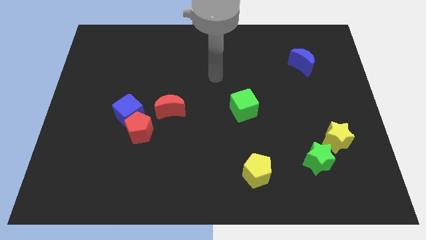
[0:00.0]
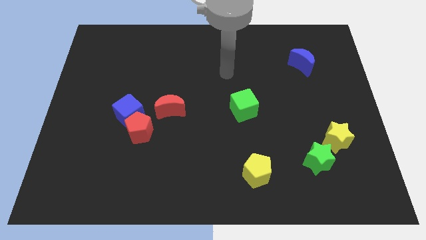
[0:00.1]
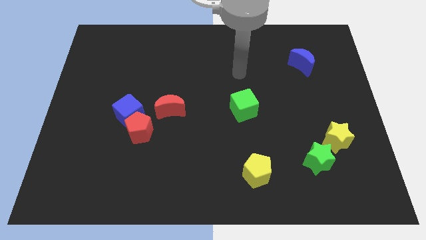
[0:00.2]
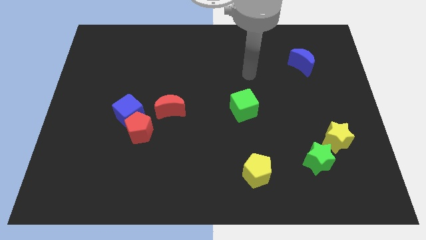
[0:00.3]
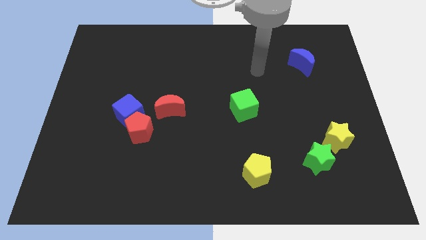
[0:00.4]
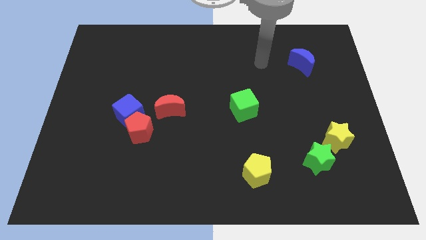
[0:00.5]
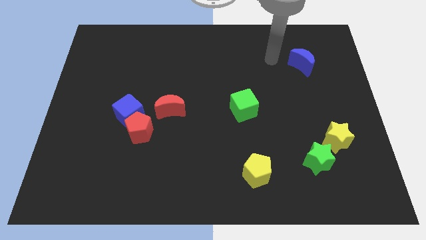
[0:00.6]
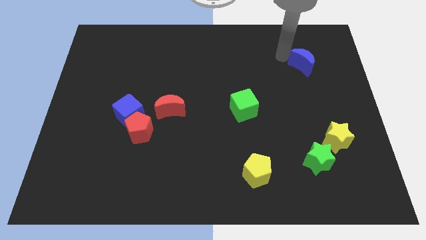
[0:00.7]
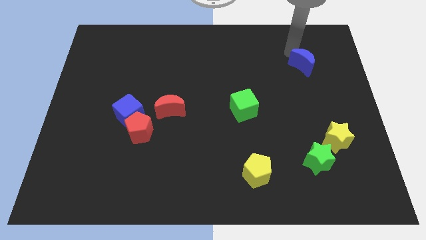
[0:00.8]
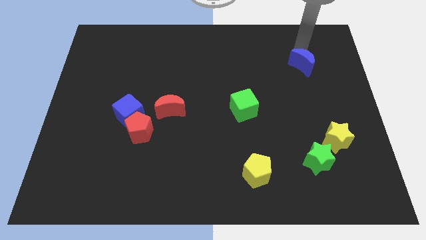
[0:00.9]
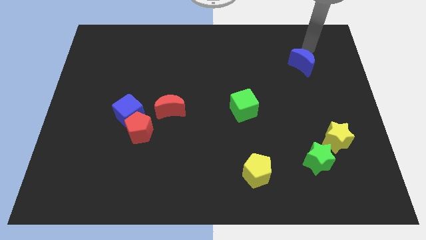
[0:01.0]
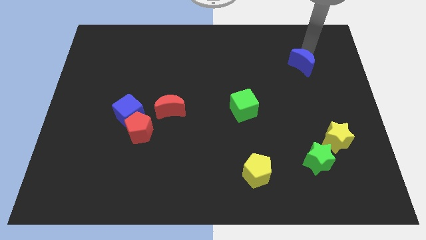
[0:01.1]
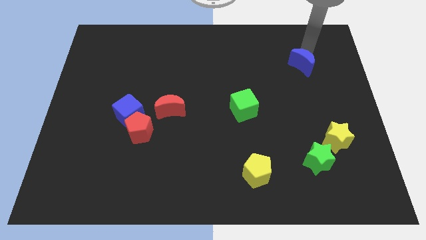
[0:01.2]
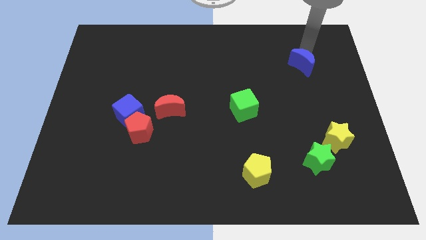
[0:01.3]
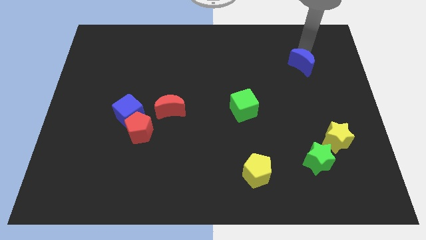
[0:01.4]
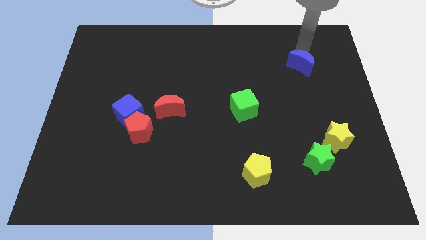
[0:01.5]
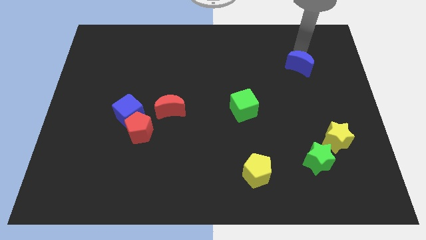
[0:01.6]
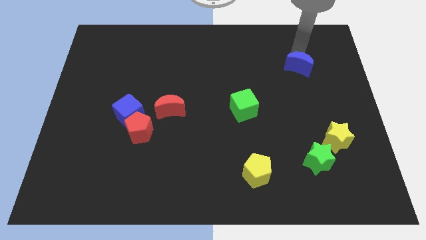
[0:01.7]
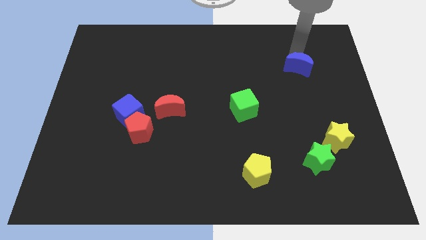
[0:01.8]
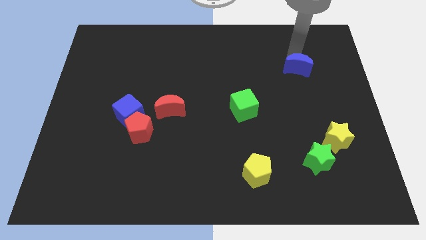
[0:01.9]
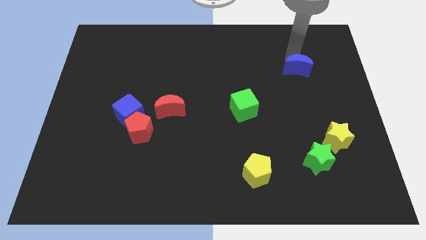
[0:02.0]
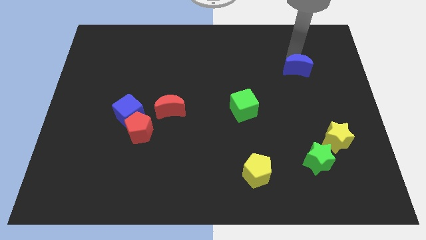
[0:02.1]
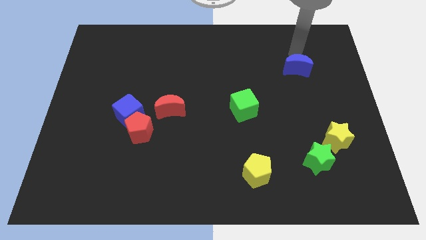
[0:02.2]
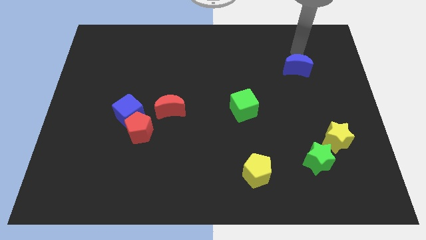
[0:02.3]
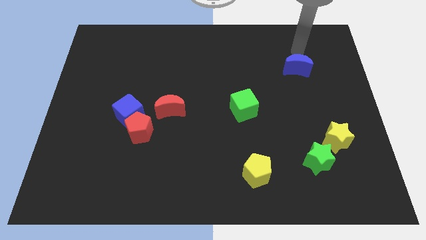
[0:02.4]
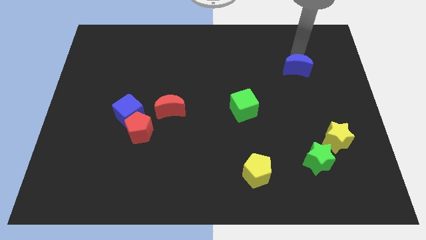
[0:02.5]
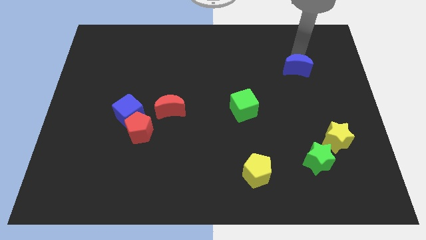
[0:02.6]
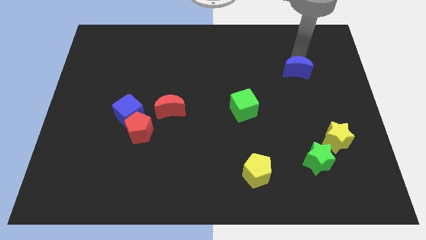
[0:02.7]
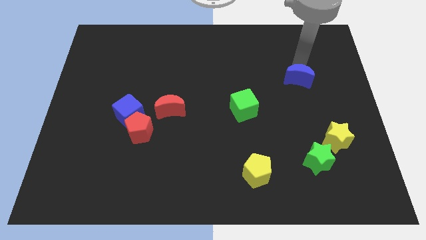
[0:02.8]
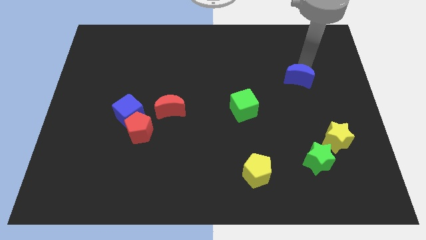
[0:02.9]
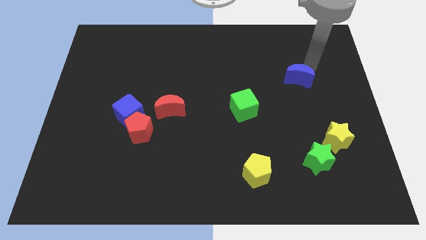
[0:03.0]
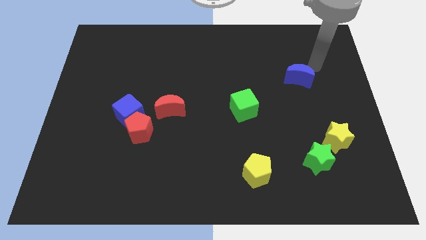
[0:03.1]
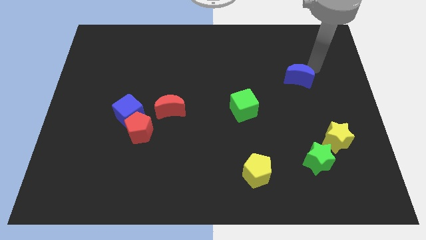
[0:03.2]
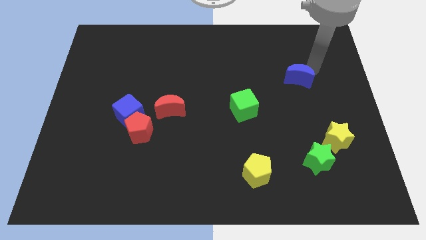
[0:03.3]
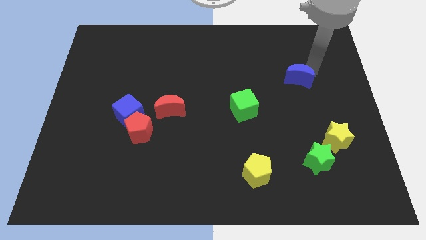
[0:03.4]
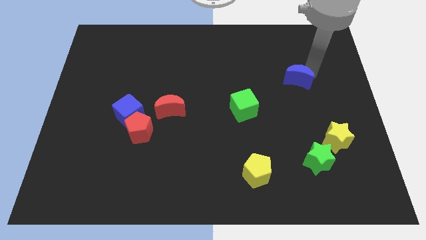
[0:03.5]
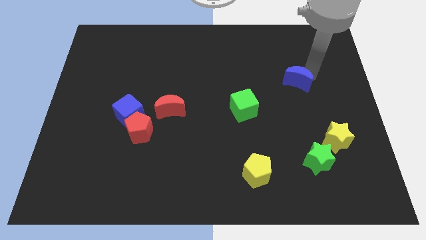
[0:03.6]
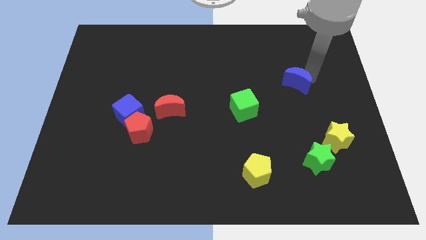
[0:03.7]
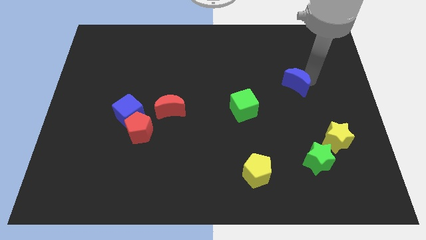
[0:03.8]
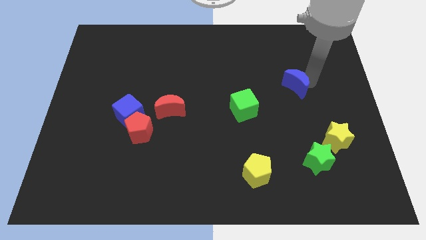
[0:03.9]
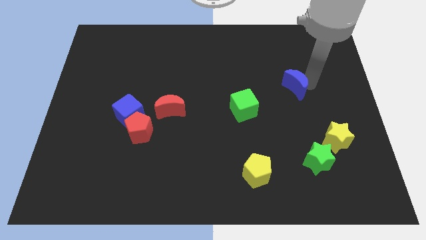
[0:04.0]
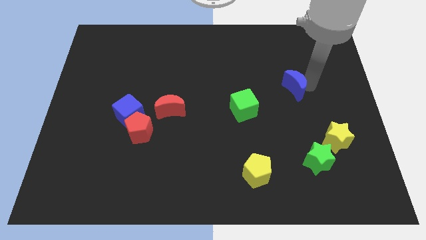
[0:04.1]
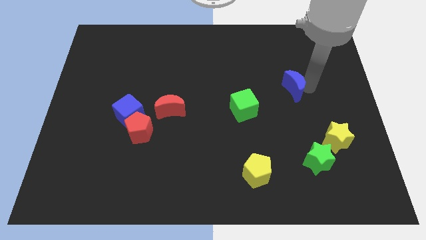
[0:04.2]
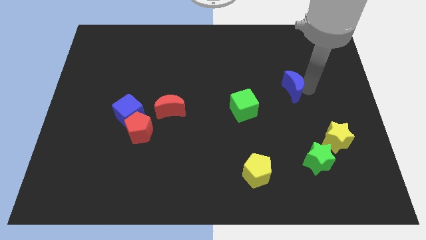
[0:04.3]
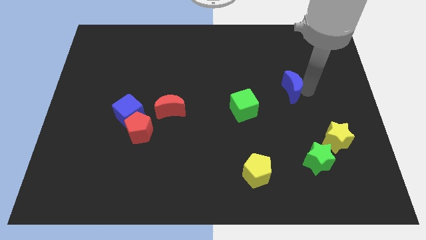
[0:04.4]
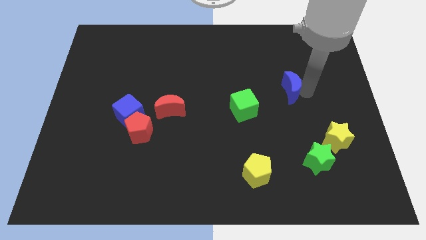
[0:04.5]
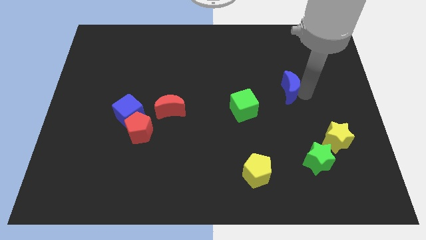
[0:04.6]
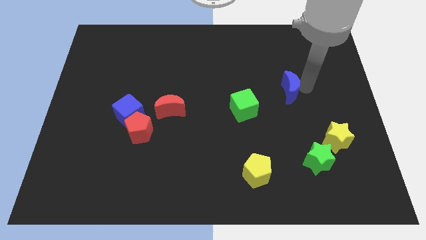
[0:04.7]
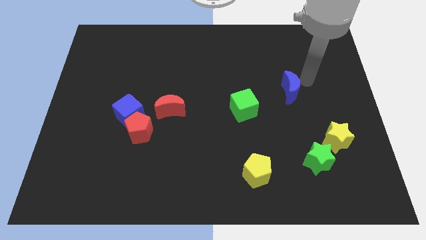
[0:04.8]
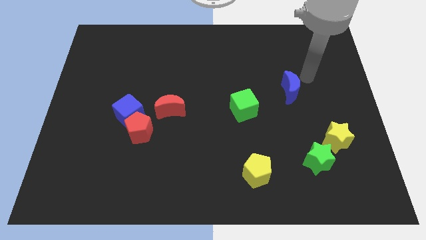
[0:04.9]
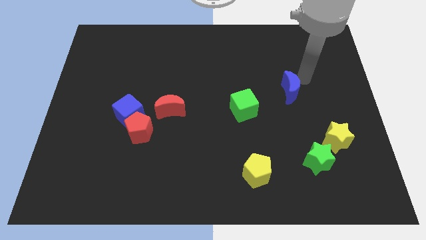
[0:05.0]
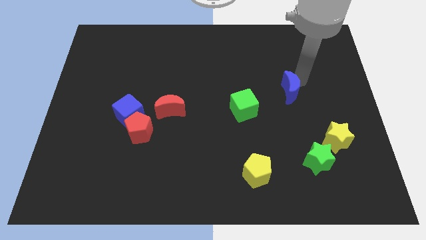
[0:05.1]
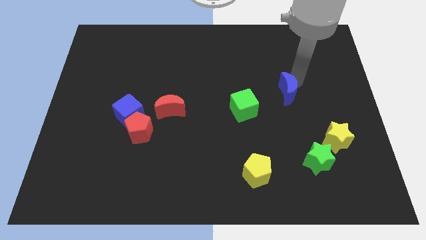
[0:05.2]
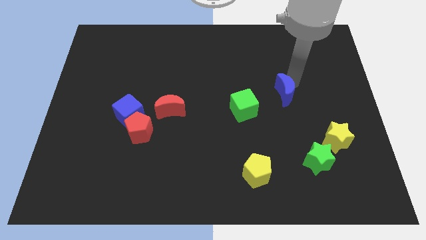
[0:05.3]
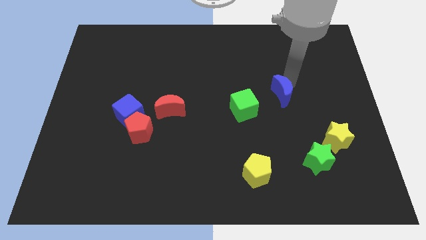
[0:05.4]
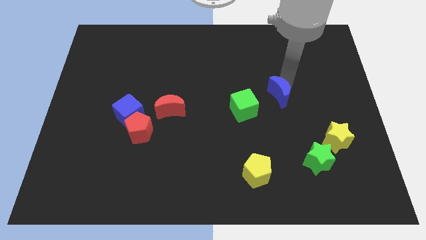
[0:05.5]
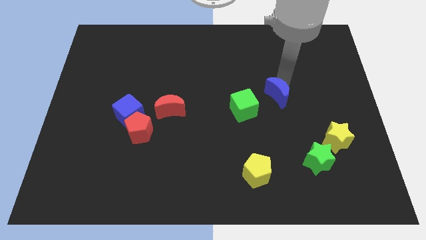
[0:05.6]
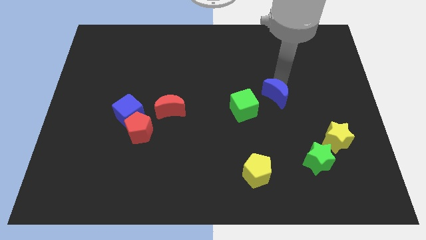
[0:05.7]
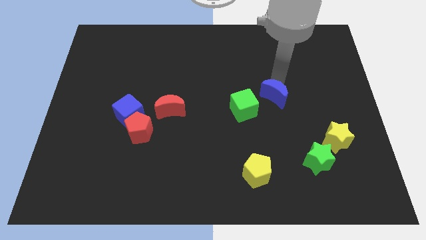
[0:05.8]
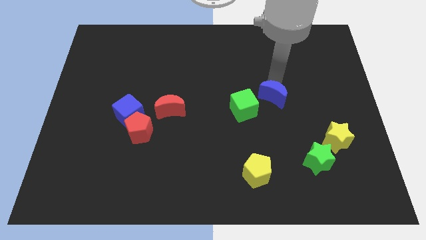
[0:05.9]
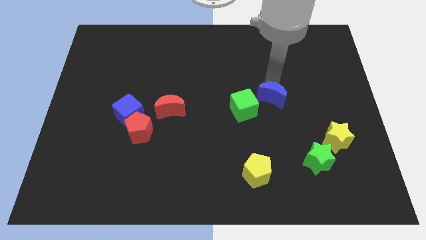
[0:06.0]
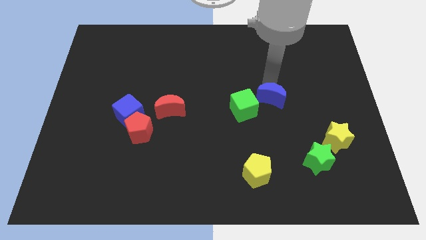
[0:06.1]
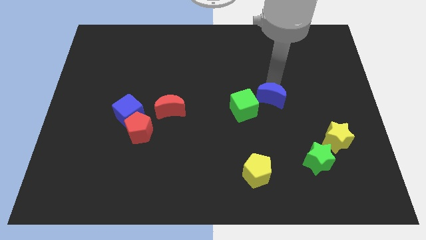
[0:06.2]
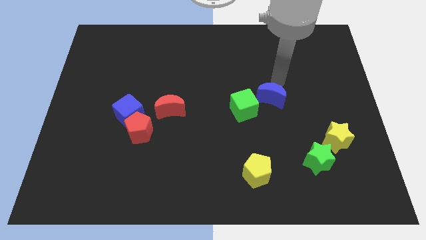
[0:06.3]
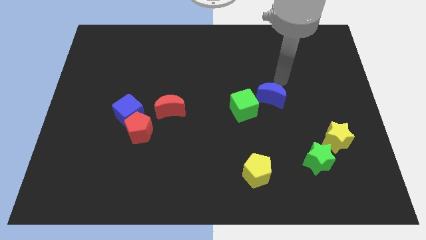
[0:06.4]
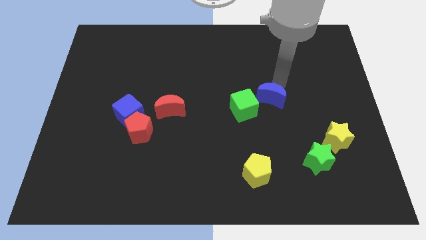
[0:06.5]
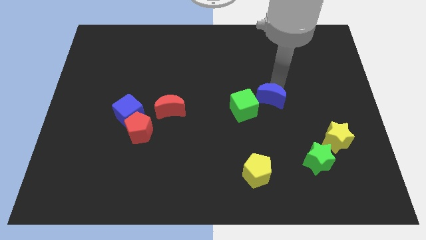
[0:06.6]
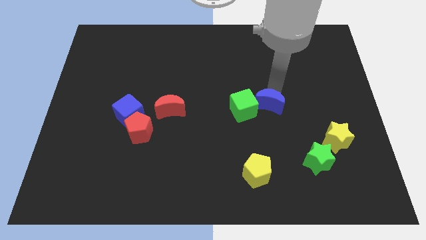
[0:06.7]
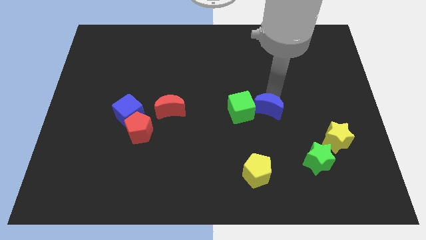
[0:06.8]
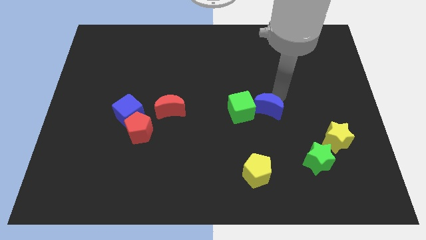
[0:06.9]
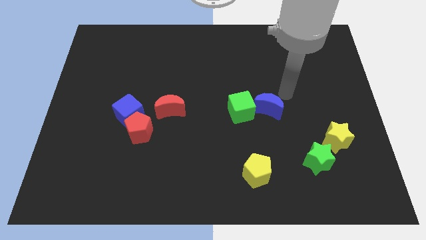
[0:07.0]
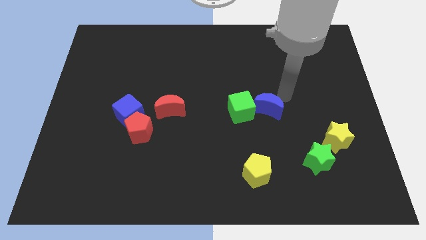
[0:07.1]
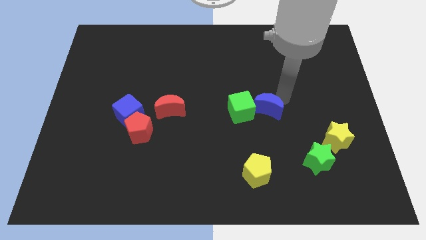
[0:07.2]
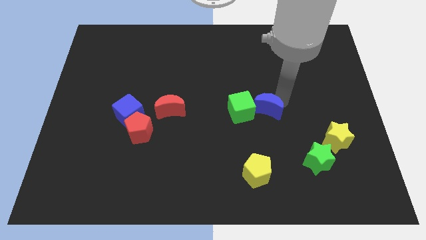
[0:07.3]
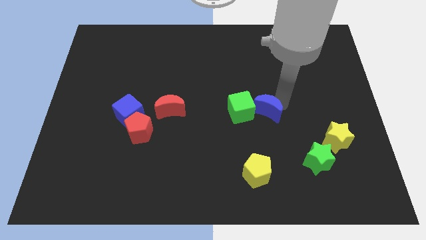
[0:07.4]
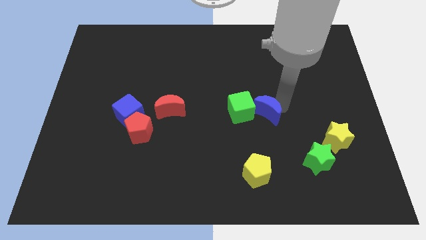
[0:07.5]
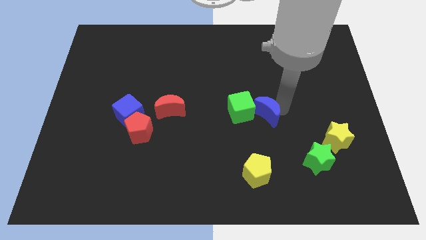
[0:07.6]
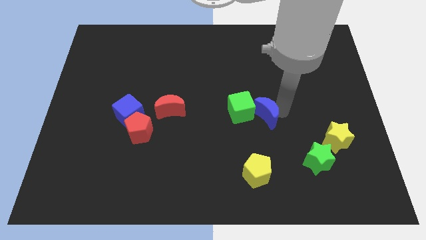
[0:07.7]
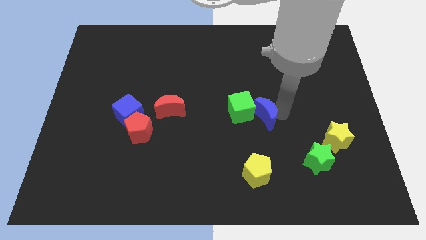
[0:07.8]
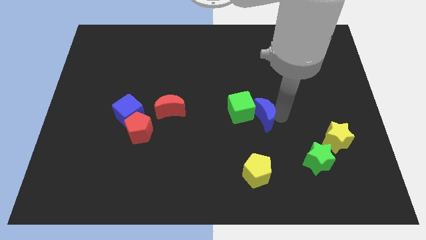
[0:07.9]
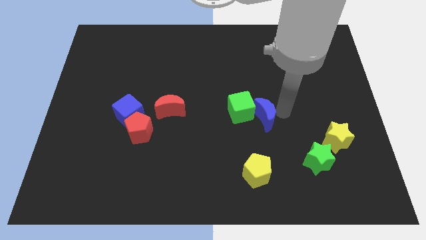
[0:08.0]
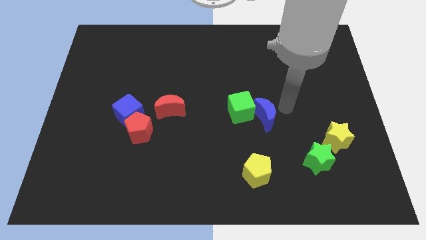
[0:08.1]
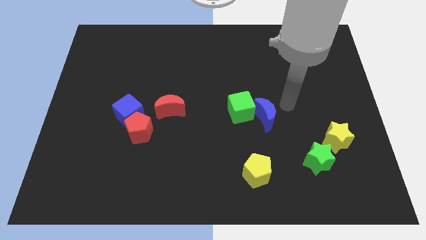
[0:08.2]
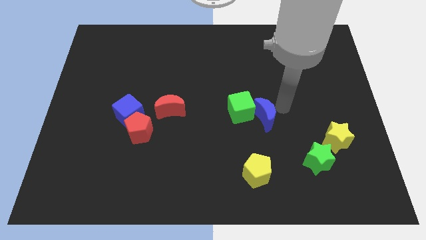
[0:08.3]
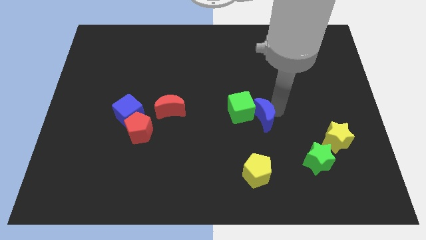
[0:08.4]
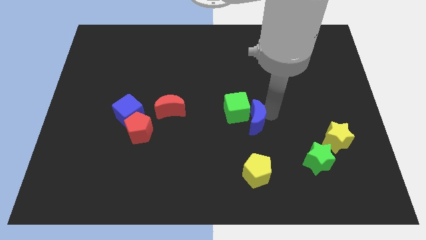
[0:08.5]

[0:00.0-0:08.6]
move the blue moon downwards and left

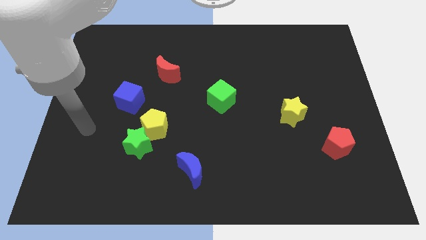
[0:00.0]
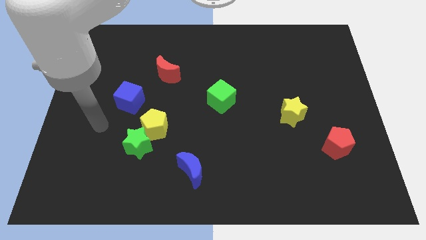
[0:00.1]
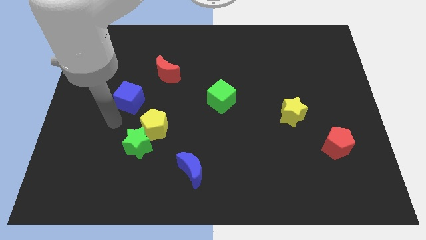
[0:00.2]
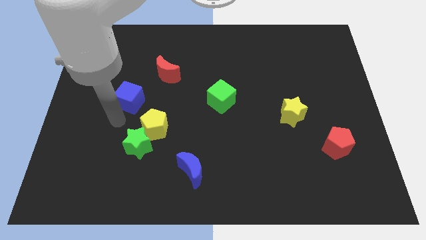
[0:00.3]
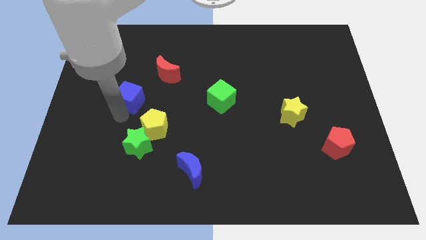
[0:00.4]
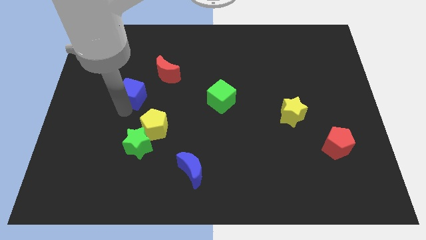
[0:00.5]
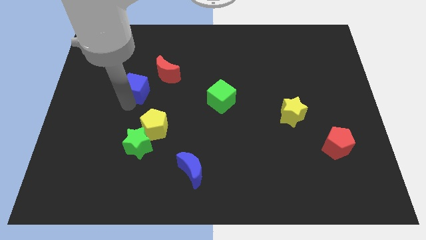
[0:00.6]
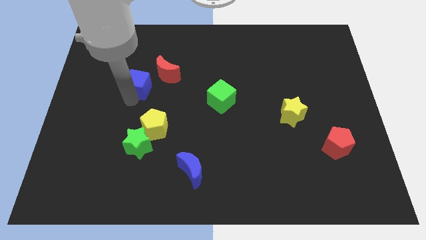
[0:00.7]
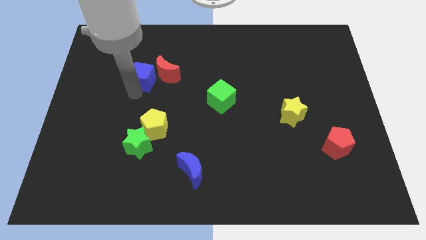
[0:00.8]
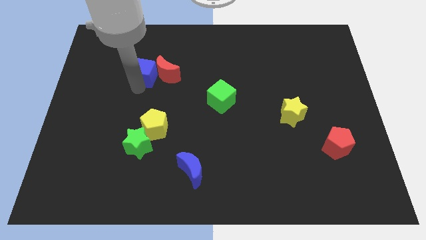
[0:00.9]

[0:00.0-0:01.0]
slightly slide the blue cube up and to the right diagonally
